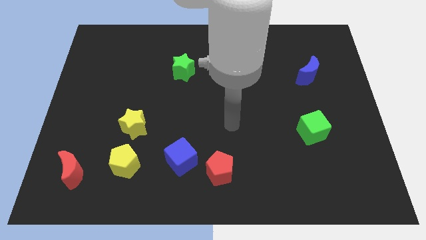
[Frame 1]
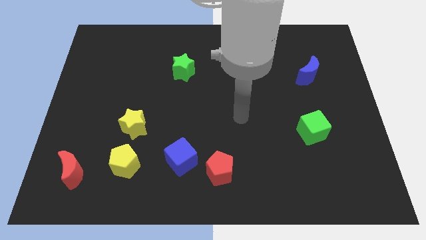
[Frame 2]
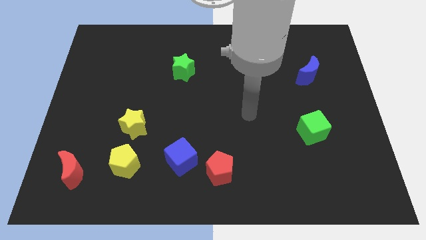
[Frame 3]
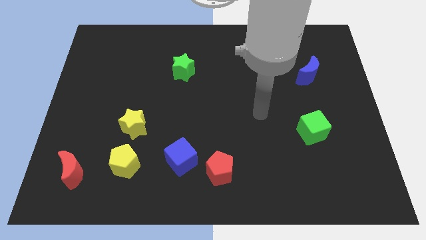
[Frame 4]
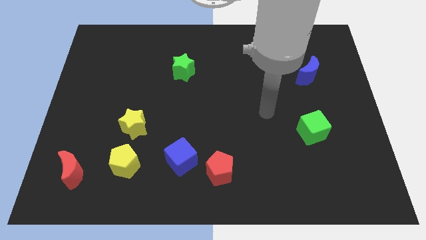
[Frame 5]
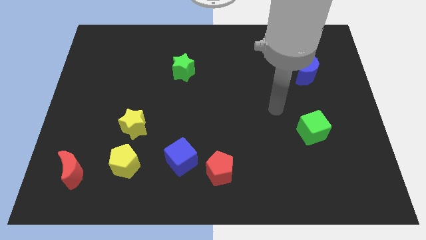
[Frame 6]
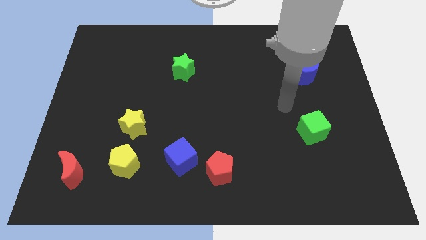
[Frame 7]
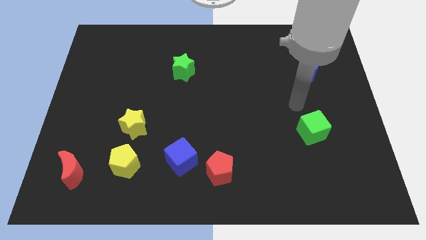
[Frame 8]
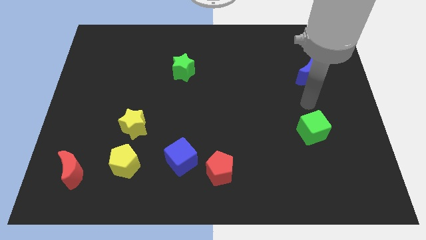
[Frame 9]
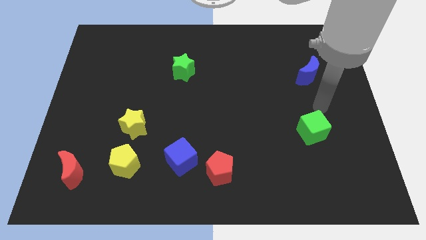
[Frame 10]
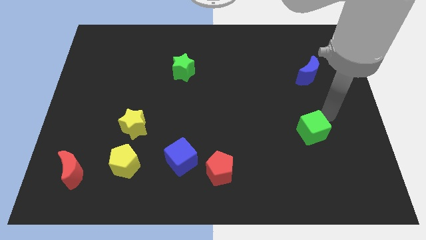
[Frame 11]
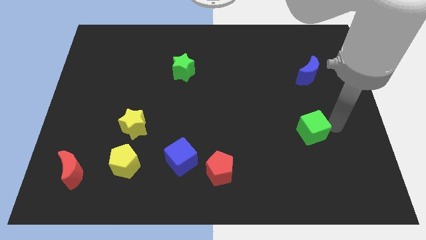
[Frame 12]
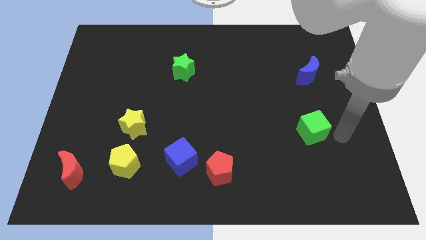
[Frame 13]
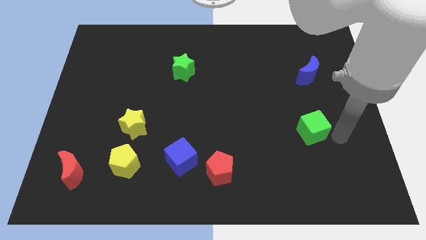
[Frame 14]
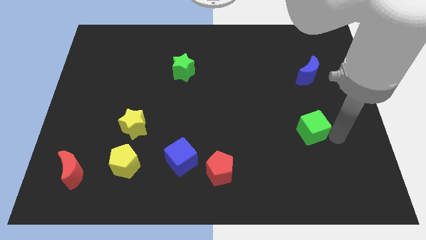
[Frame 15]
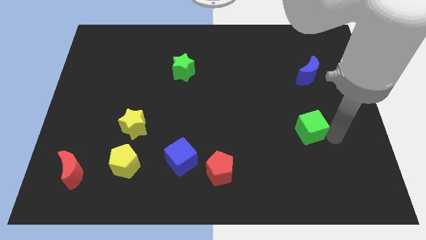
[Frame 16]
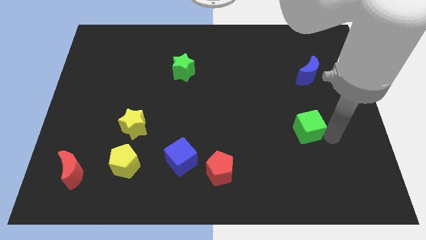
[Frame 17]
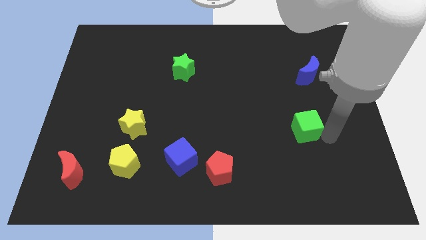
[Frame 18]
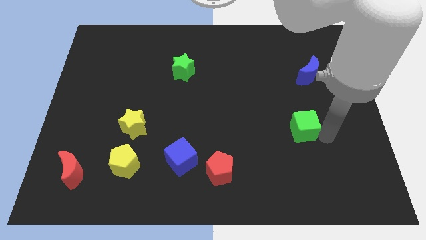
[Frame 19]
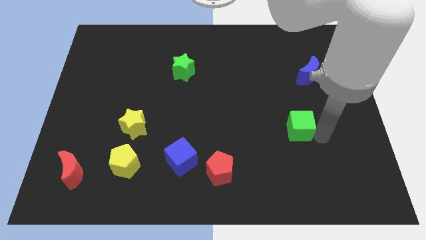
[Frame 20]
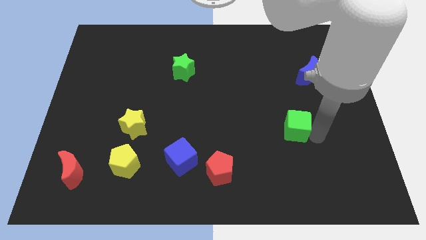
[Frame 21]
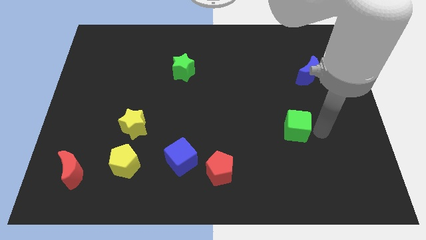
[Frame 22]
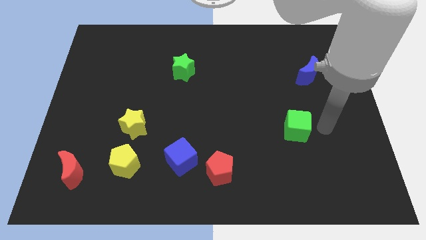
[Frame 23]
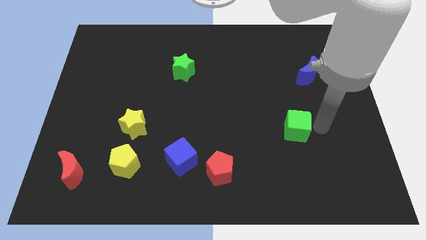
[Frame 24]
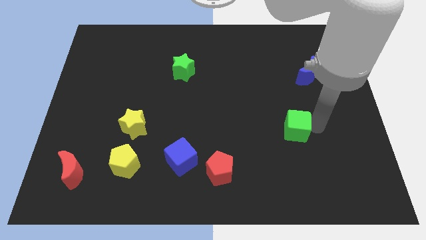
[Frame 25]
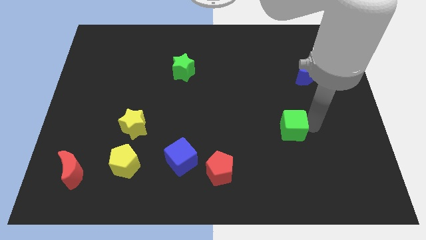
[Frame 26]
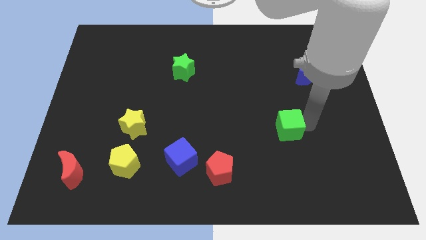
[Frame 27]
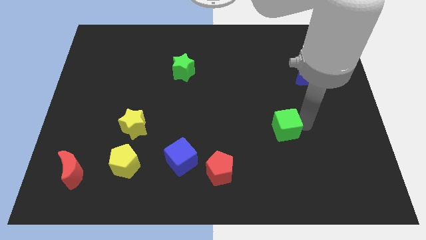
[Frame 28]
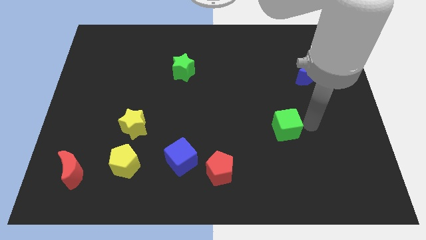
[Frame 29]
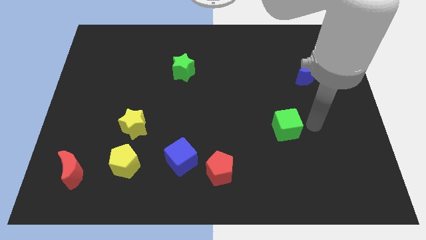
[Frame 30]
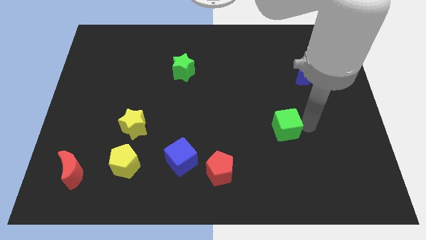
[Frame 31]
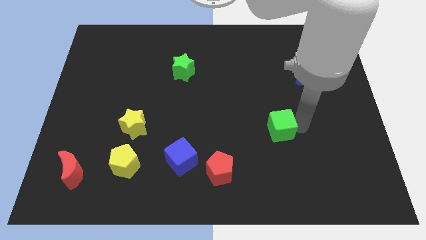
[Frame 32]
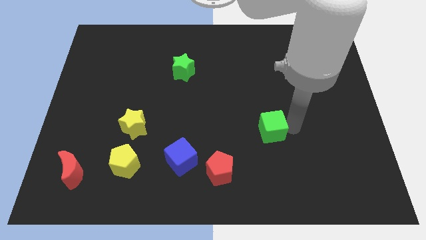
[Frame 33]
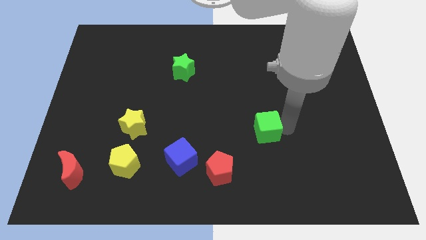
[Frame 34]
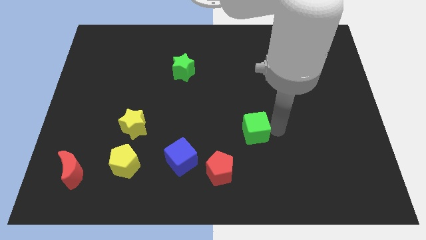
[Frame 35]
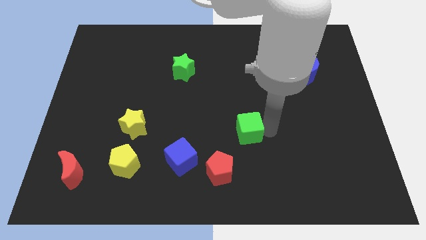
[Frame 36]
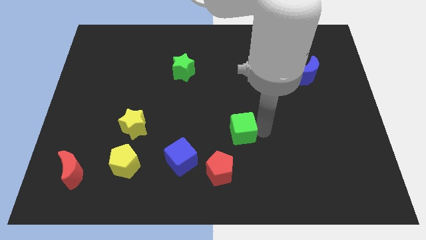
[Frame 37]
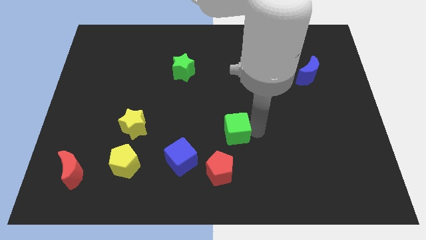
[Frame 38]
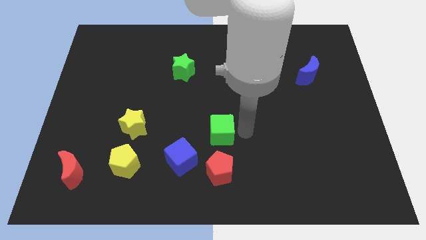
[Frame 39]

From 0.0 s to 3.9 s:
move the green cube left

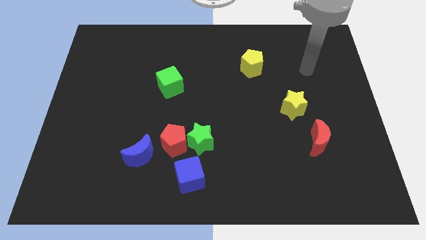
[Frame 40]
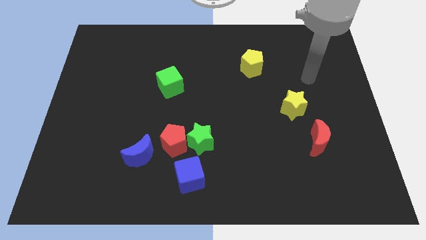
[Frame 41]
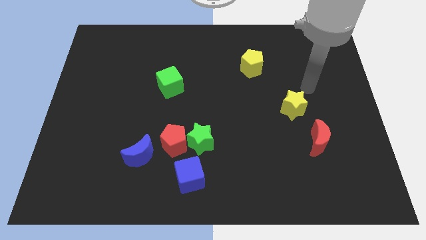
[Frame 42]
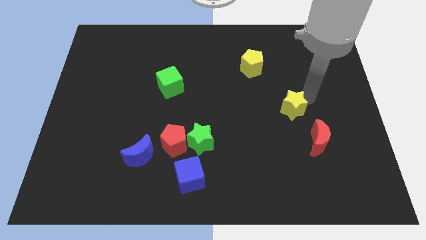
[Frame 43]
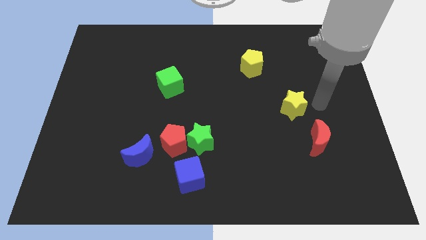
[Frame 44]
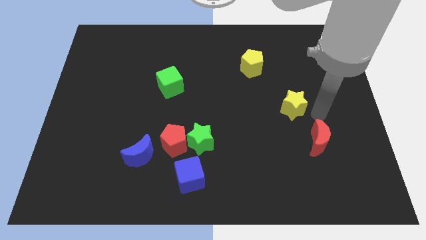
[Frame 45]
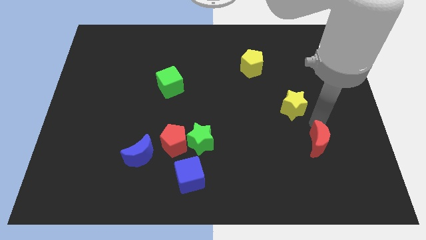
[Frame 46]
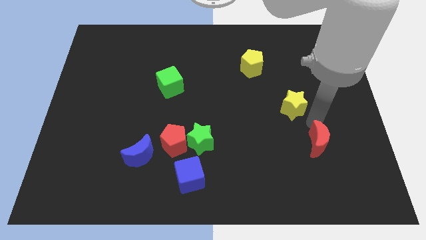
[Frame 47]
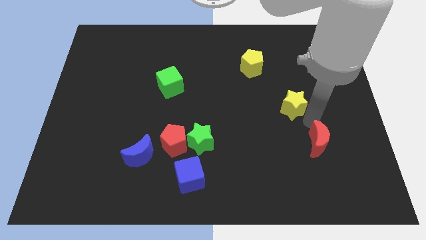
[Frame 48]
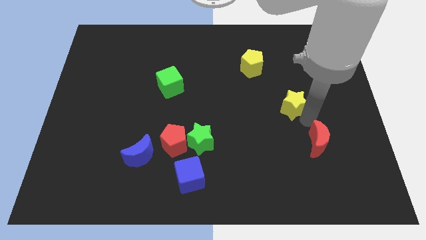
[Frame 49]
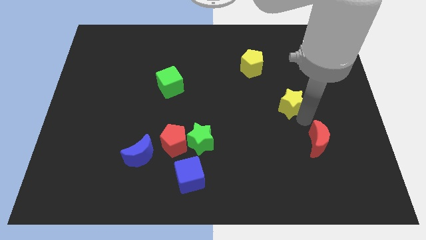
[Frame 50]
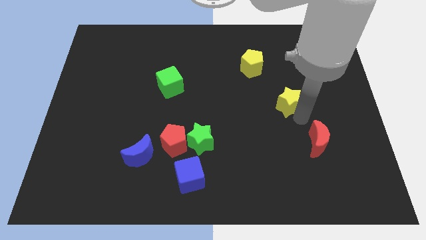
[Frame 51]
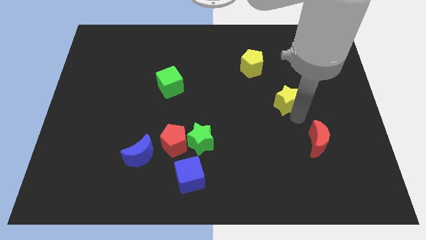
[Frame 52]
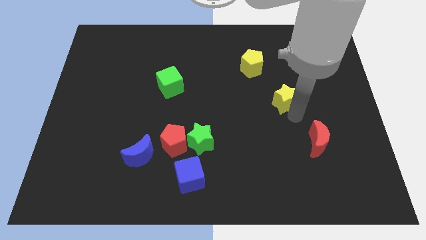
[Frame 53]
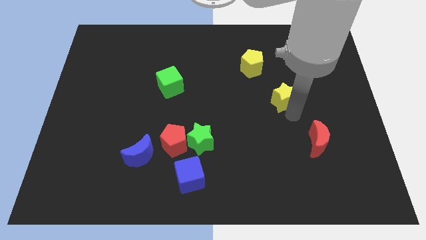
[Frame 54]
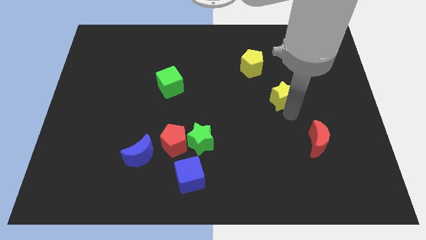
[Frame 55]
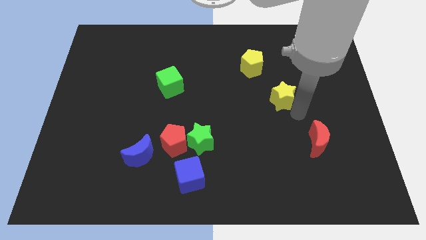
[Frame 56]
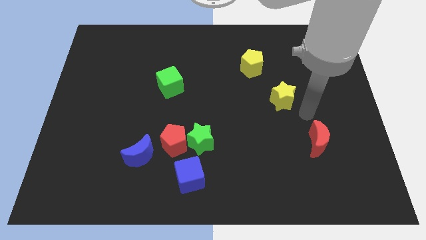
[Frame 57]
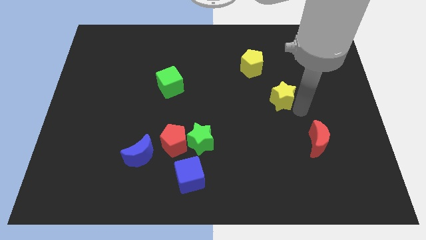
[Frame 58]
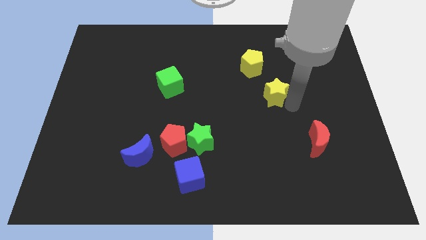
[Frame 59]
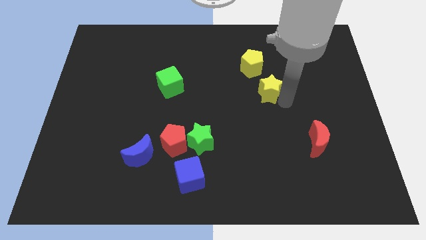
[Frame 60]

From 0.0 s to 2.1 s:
slide the yellow star upwards and to the left diagonally somewhat

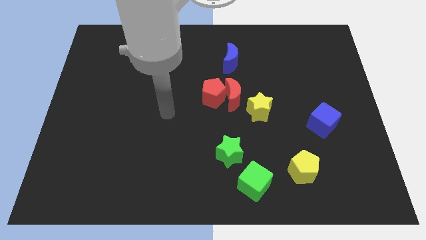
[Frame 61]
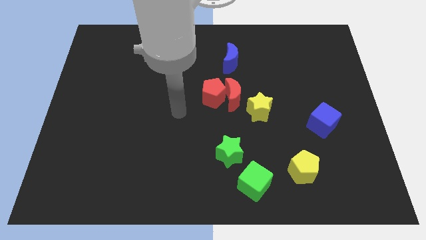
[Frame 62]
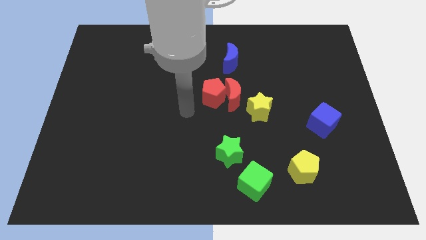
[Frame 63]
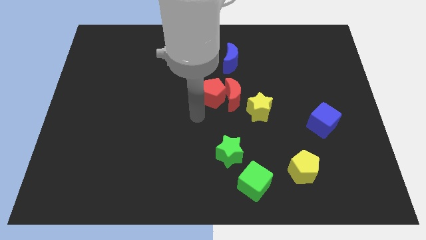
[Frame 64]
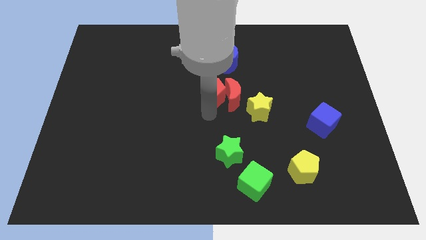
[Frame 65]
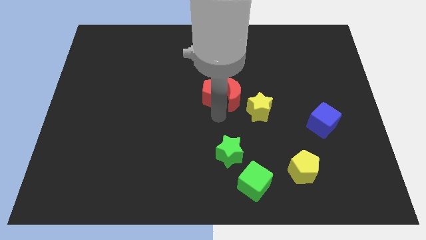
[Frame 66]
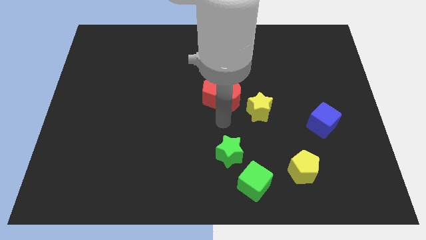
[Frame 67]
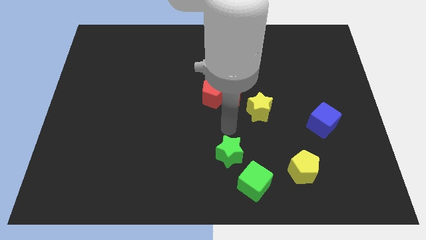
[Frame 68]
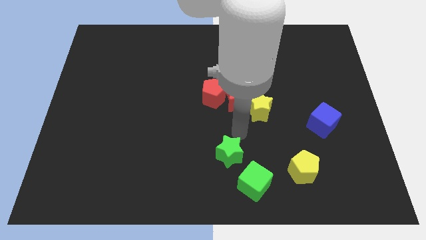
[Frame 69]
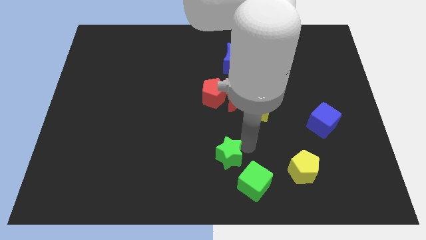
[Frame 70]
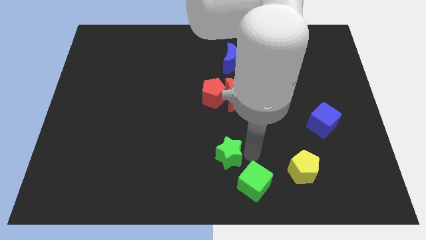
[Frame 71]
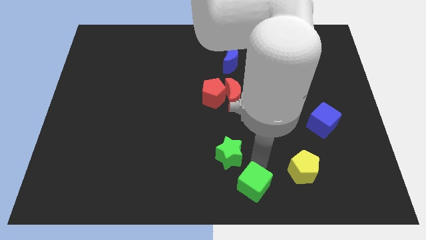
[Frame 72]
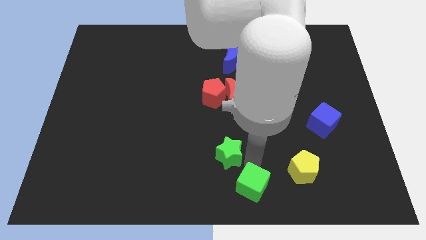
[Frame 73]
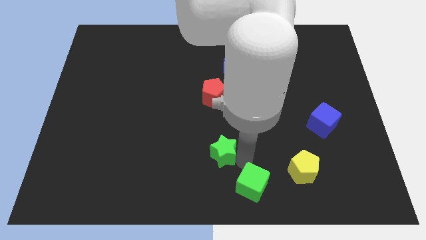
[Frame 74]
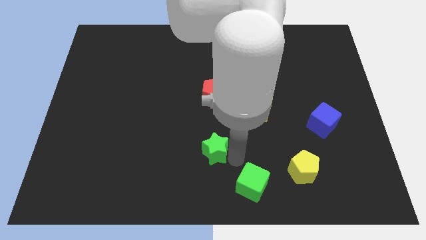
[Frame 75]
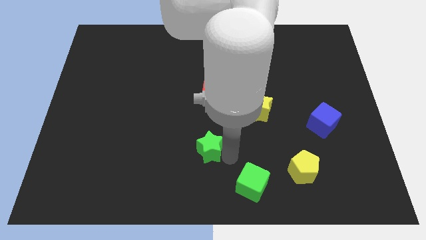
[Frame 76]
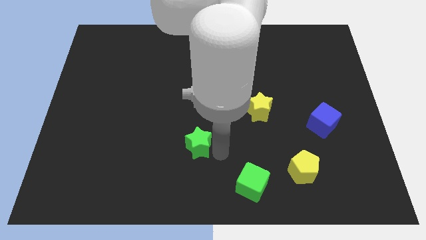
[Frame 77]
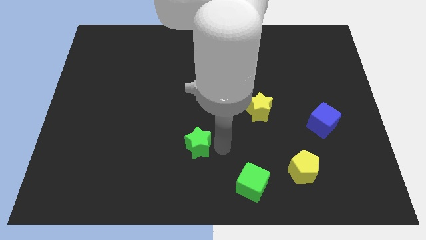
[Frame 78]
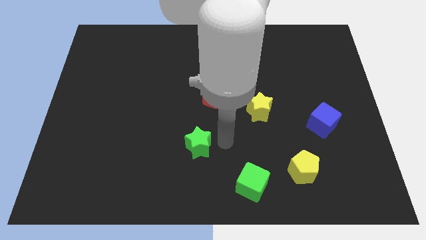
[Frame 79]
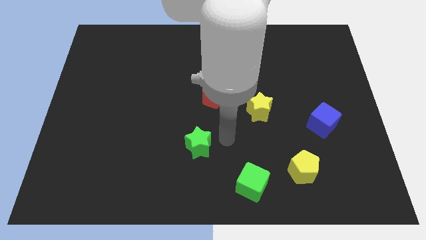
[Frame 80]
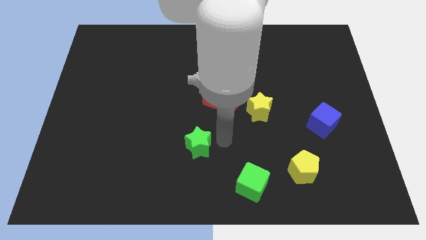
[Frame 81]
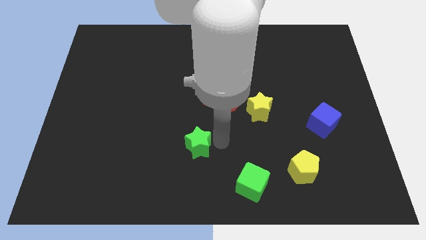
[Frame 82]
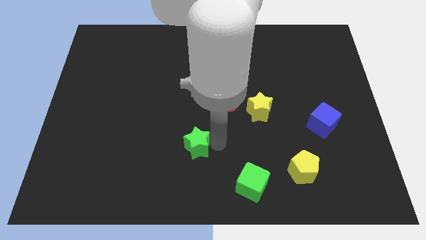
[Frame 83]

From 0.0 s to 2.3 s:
slightly move the green star to the left
